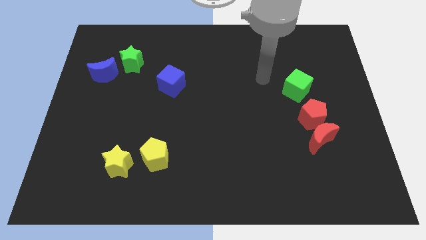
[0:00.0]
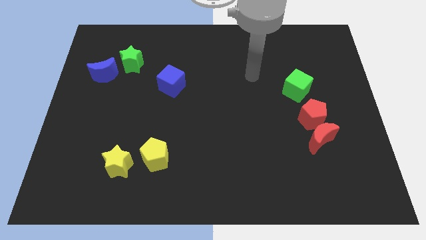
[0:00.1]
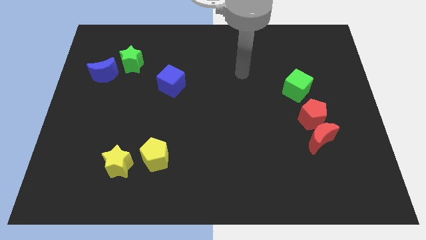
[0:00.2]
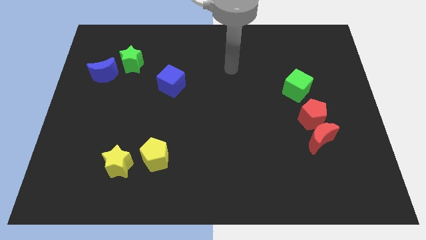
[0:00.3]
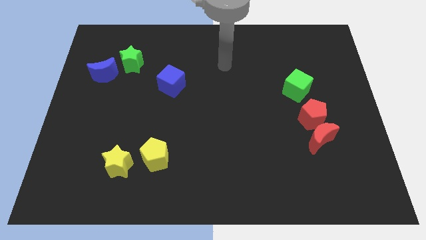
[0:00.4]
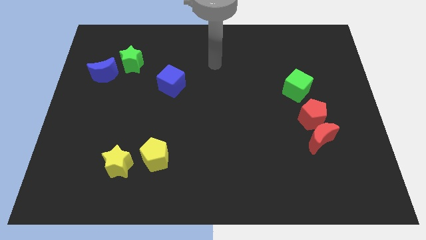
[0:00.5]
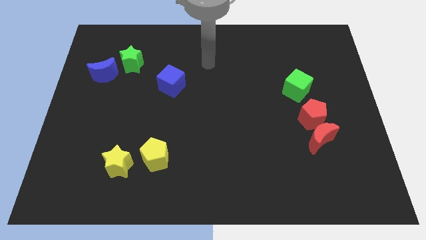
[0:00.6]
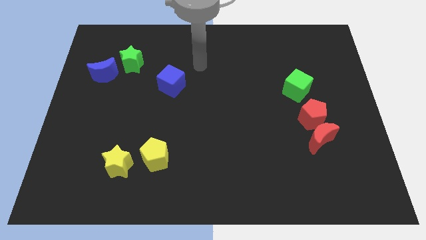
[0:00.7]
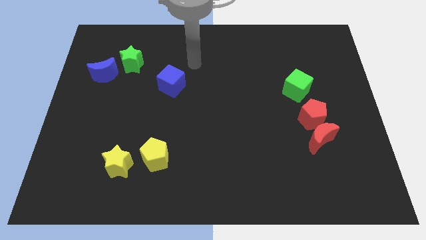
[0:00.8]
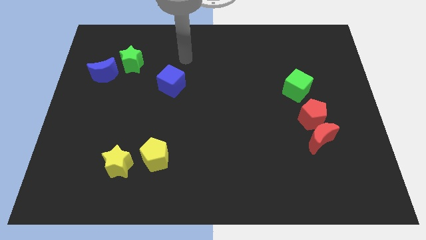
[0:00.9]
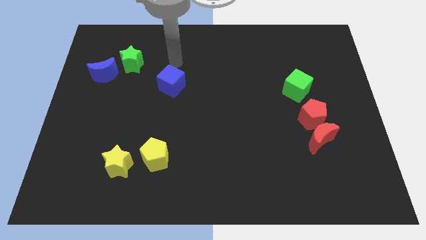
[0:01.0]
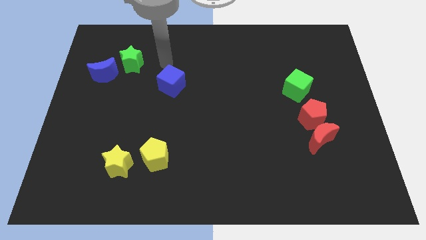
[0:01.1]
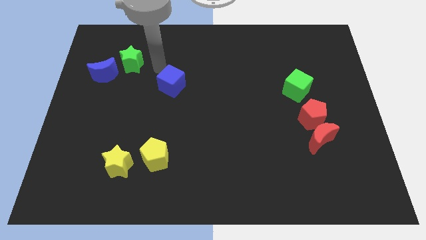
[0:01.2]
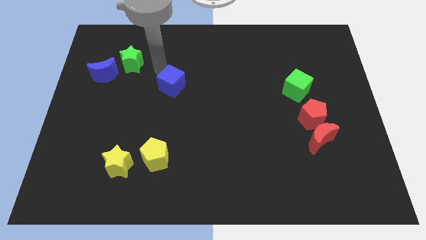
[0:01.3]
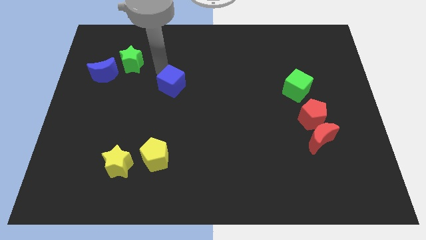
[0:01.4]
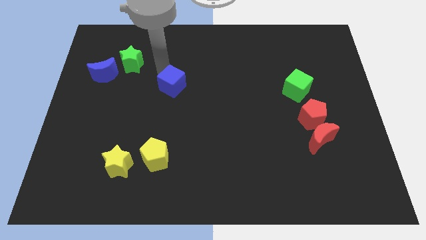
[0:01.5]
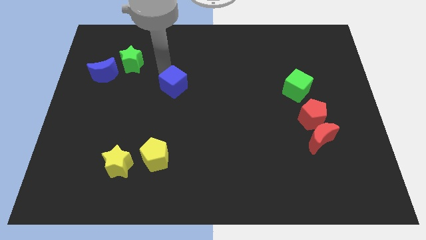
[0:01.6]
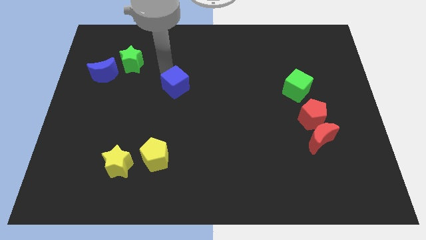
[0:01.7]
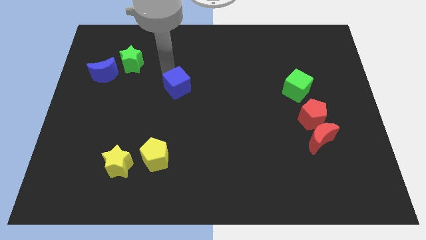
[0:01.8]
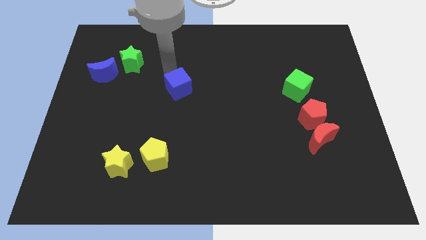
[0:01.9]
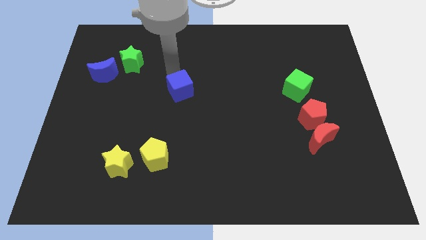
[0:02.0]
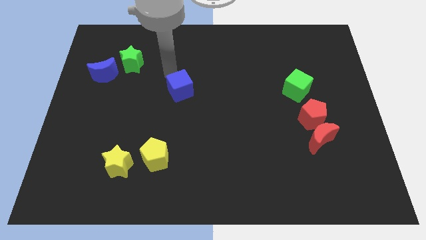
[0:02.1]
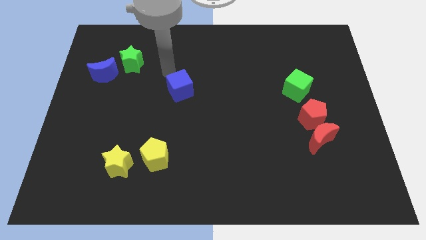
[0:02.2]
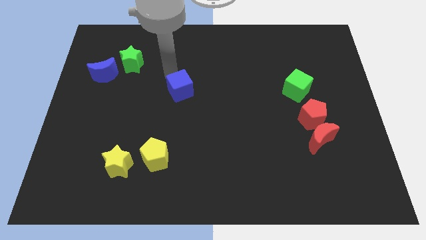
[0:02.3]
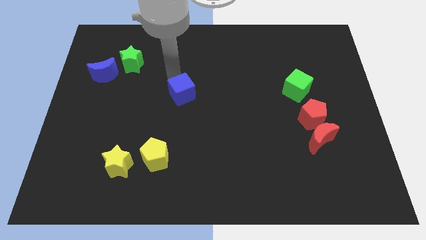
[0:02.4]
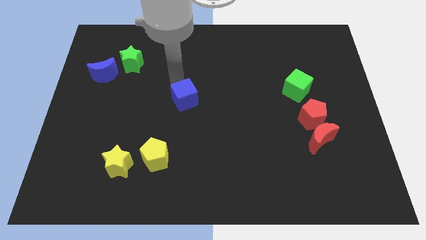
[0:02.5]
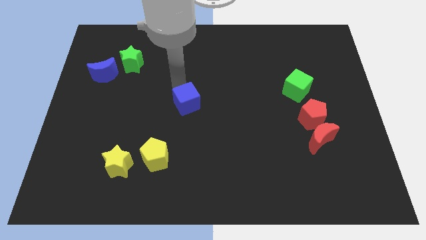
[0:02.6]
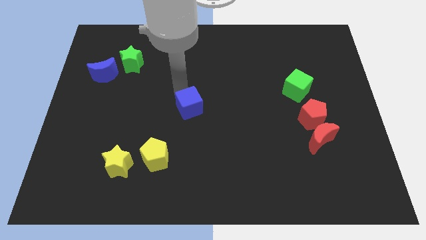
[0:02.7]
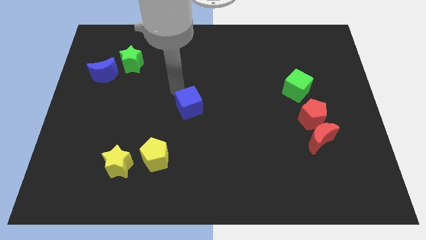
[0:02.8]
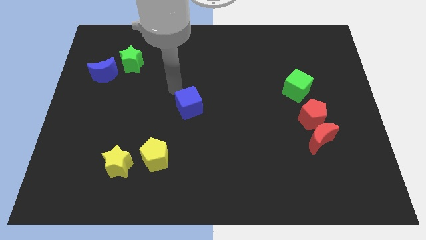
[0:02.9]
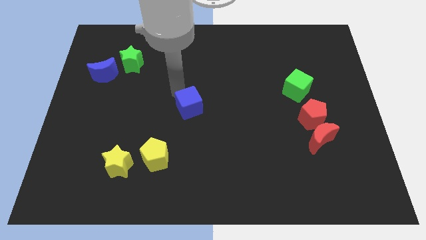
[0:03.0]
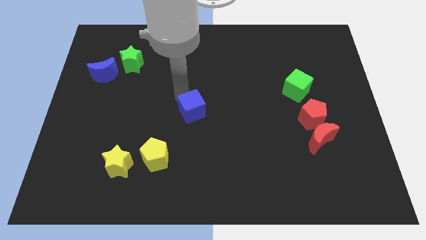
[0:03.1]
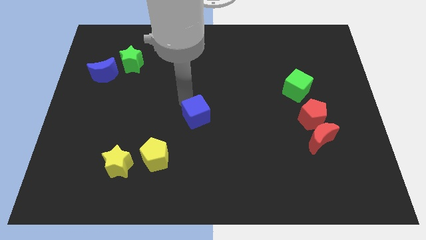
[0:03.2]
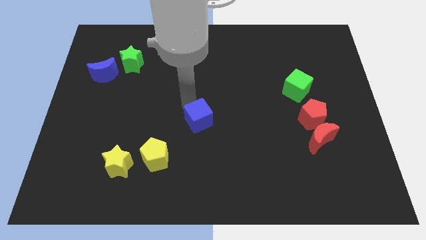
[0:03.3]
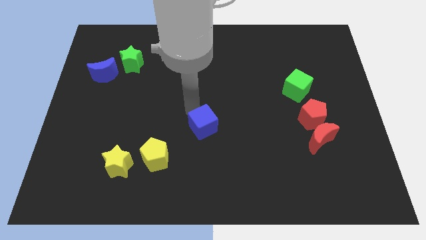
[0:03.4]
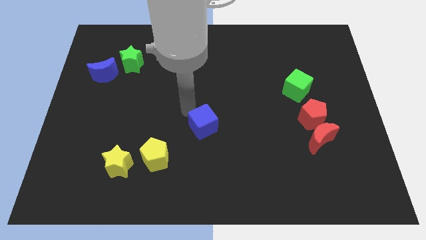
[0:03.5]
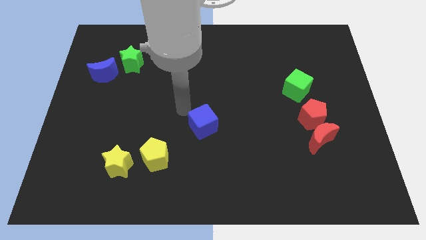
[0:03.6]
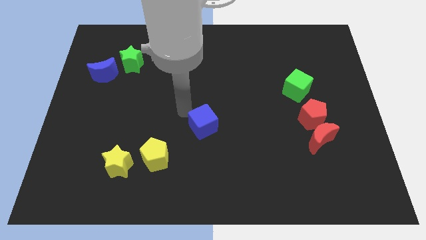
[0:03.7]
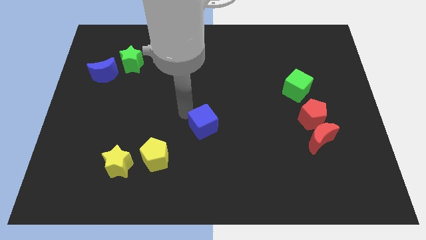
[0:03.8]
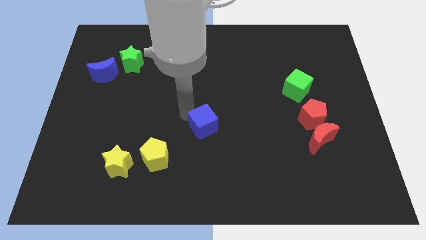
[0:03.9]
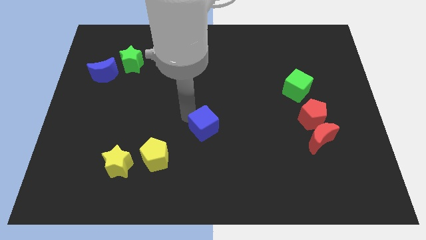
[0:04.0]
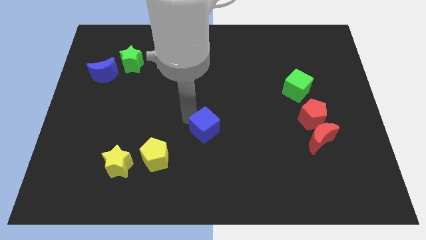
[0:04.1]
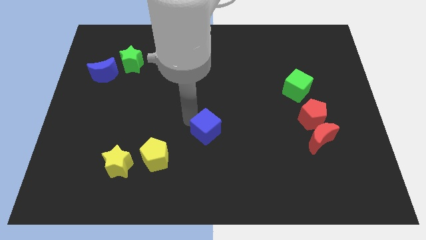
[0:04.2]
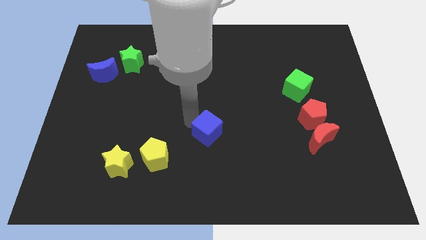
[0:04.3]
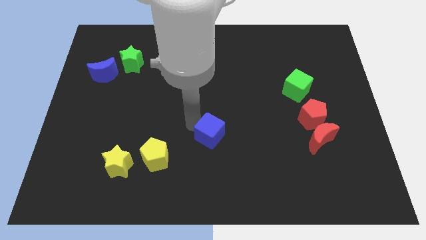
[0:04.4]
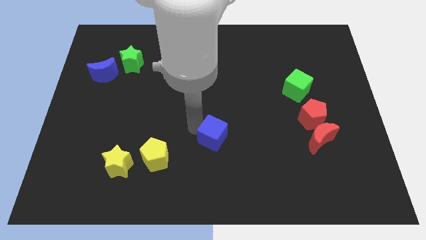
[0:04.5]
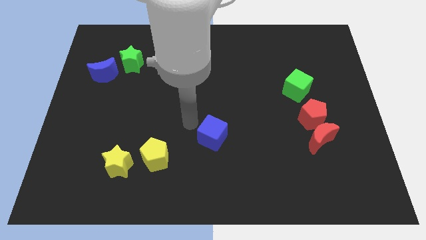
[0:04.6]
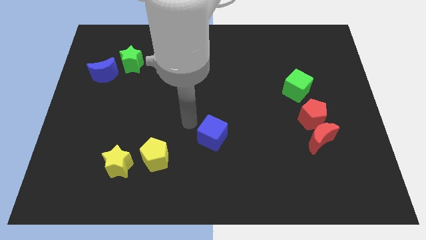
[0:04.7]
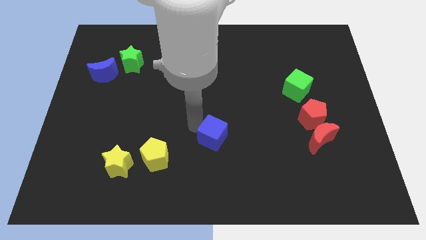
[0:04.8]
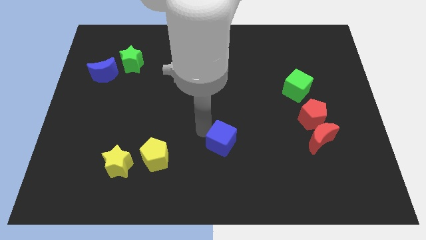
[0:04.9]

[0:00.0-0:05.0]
slide the blue cube diagonally down and to the right

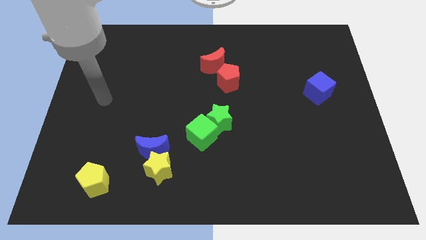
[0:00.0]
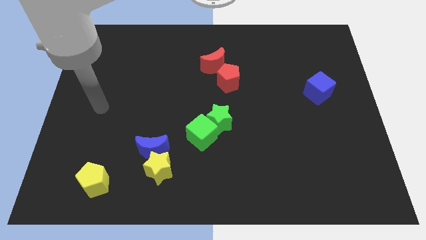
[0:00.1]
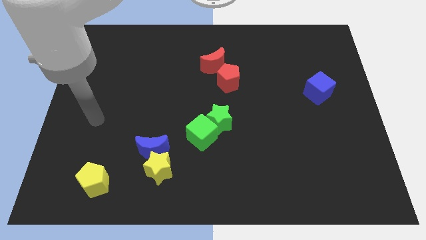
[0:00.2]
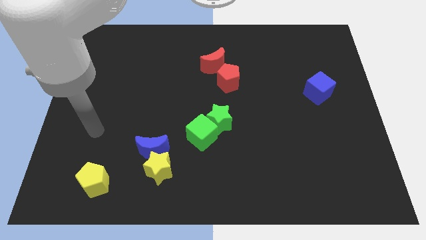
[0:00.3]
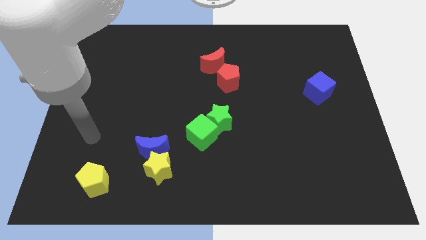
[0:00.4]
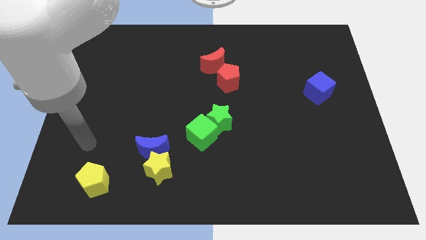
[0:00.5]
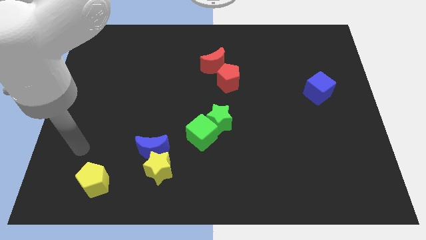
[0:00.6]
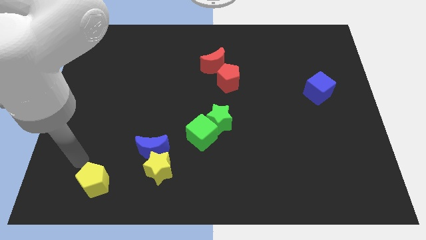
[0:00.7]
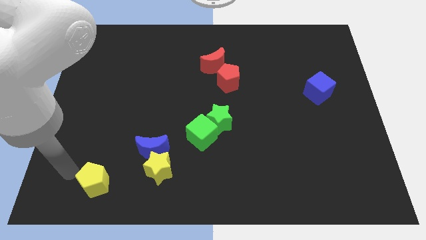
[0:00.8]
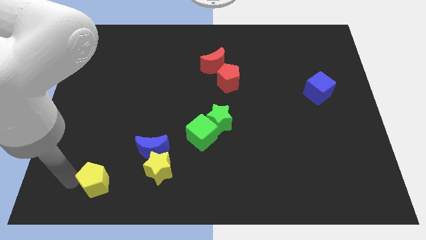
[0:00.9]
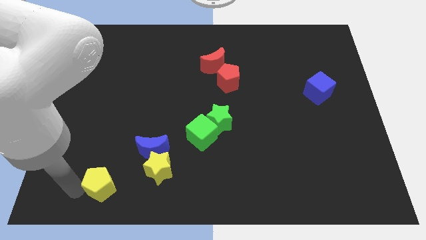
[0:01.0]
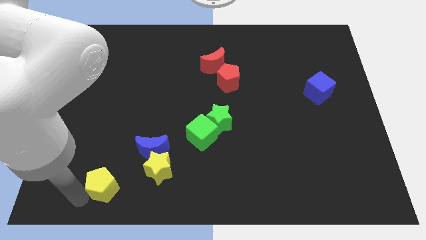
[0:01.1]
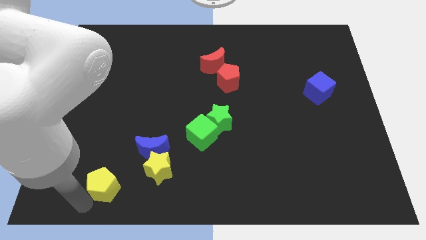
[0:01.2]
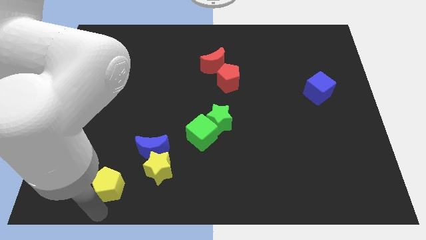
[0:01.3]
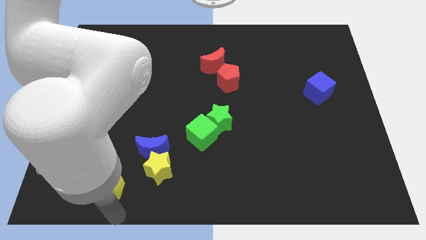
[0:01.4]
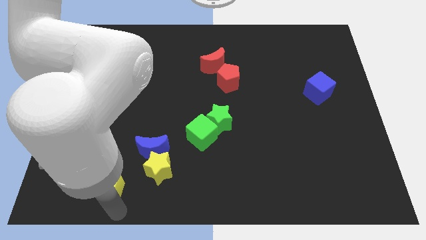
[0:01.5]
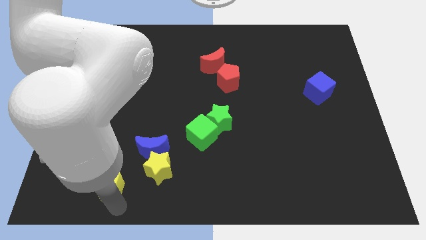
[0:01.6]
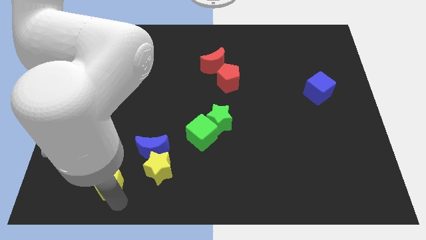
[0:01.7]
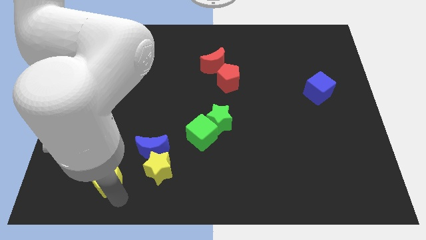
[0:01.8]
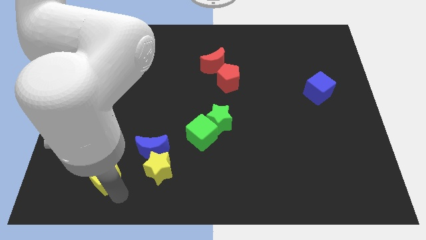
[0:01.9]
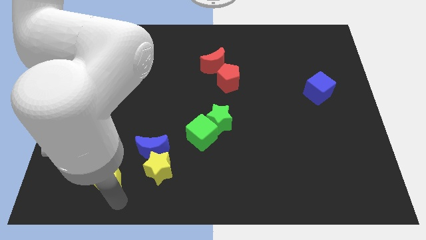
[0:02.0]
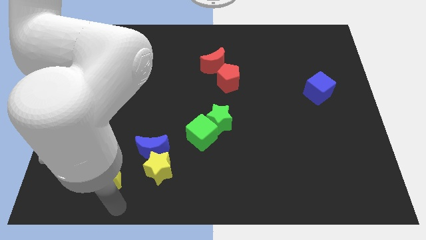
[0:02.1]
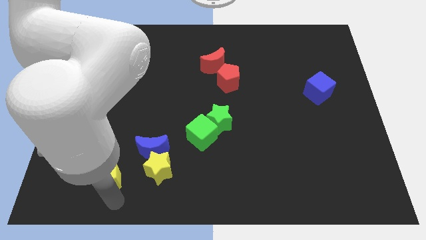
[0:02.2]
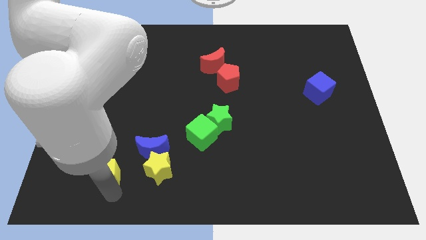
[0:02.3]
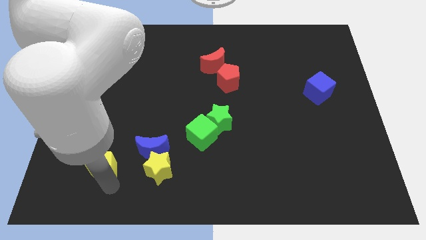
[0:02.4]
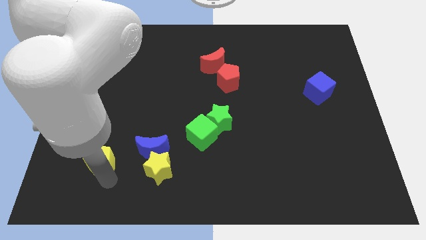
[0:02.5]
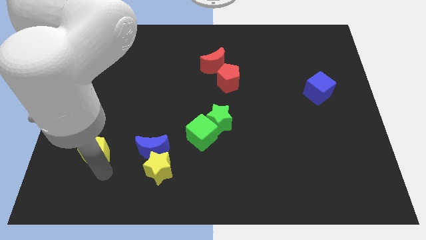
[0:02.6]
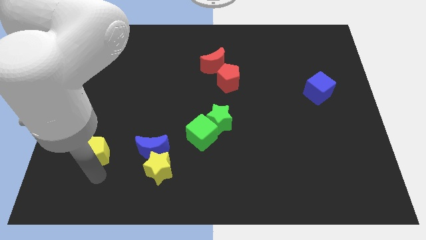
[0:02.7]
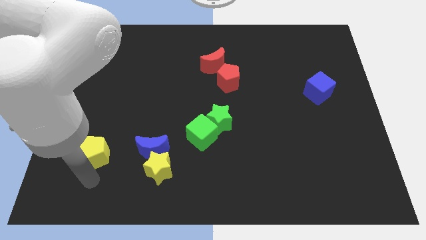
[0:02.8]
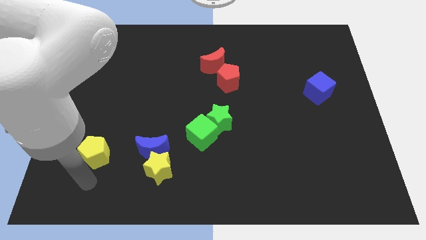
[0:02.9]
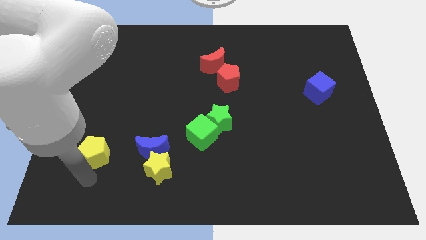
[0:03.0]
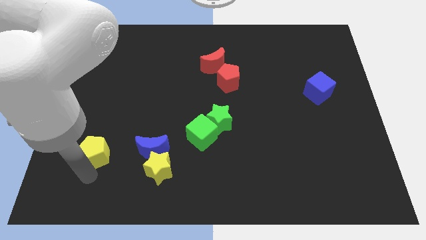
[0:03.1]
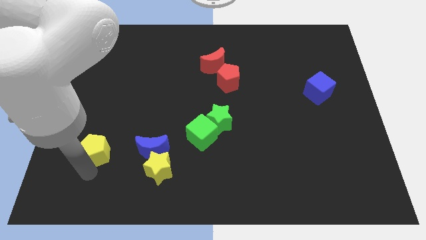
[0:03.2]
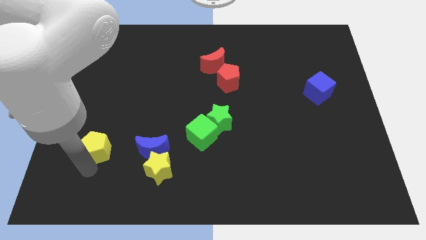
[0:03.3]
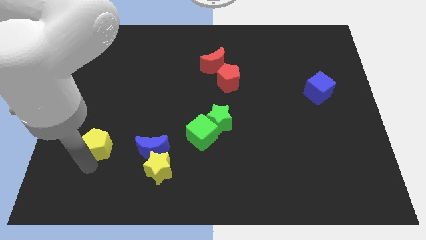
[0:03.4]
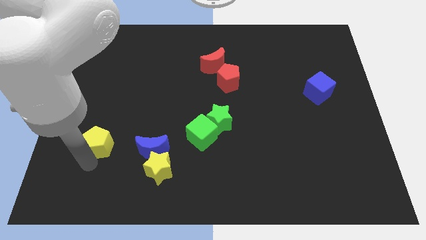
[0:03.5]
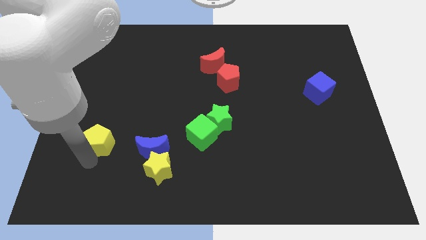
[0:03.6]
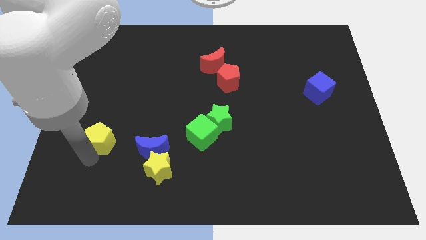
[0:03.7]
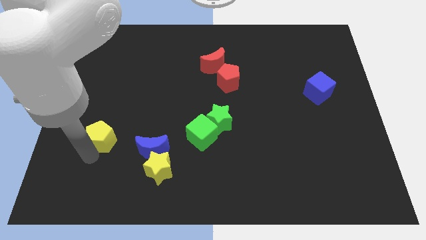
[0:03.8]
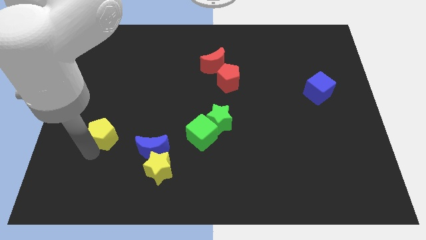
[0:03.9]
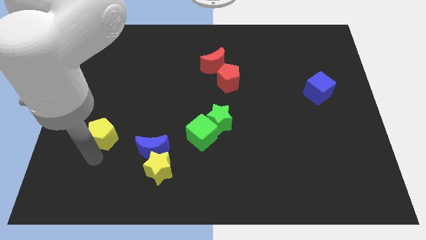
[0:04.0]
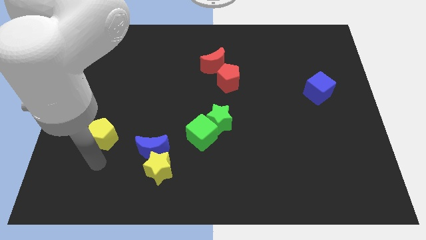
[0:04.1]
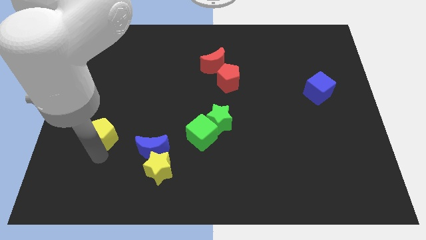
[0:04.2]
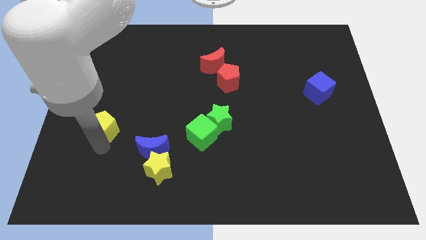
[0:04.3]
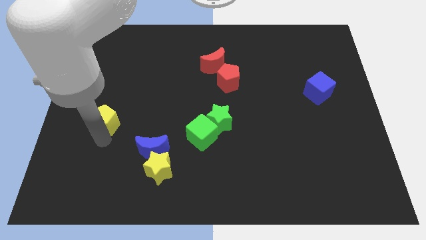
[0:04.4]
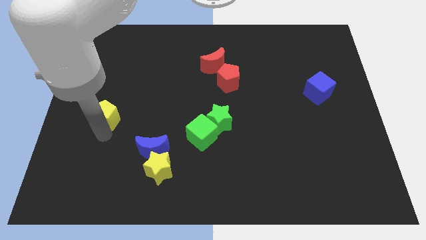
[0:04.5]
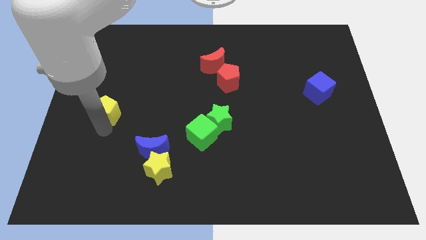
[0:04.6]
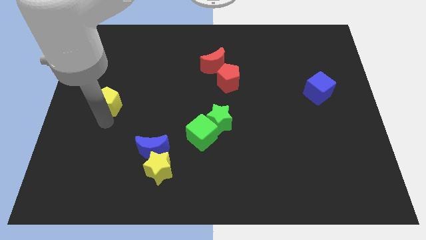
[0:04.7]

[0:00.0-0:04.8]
move the yellow pentagon up
